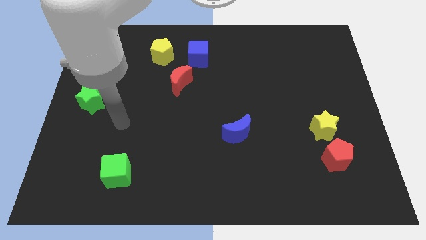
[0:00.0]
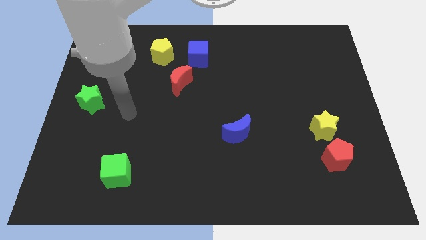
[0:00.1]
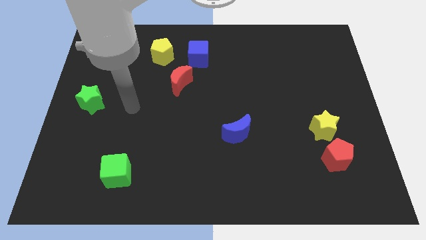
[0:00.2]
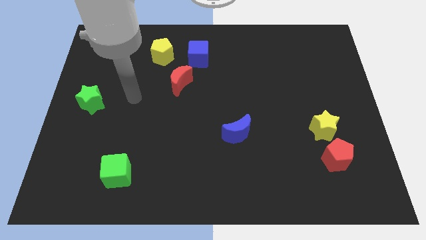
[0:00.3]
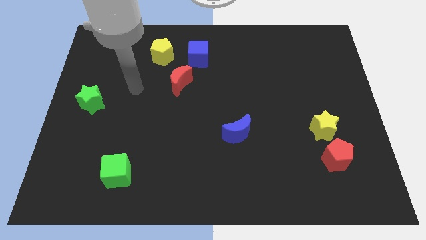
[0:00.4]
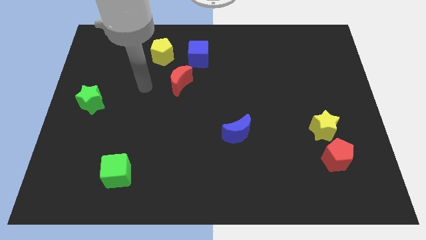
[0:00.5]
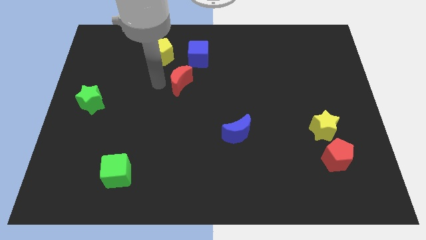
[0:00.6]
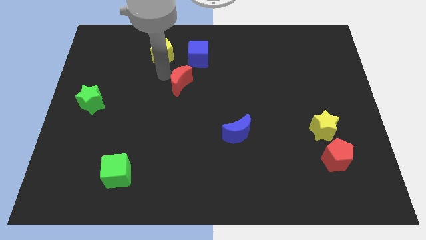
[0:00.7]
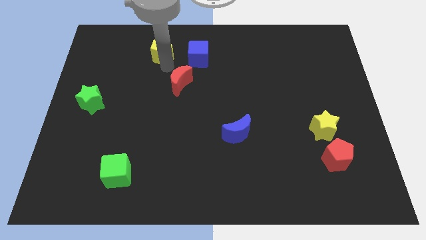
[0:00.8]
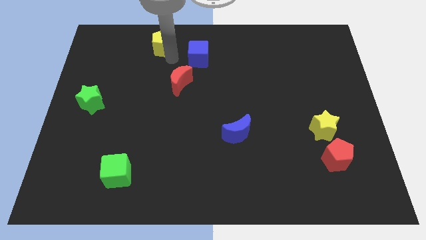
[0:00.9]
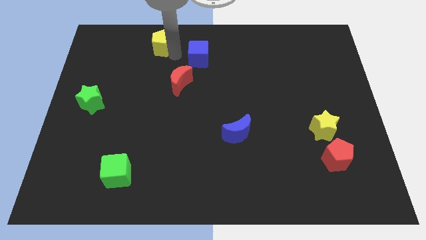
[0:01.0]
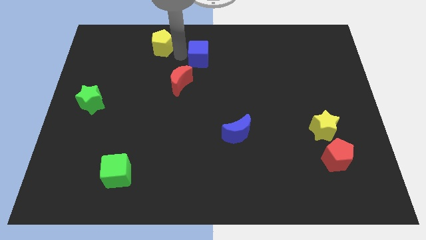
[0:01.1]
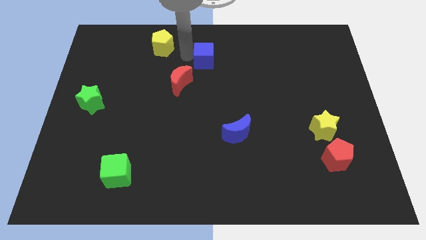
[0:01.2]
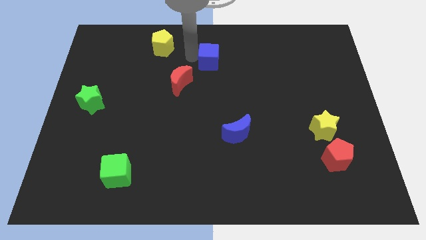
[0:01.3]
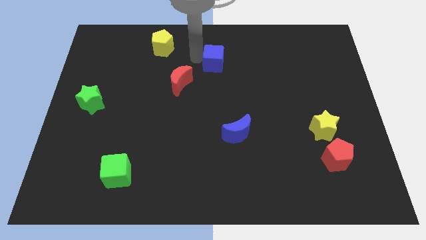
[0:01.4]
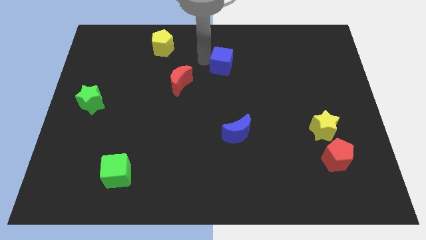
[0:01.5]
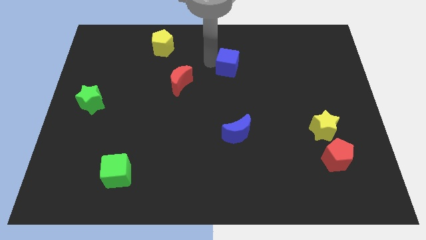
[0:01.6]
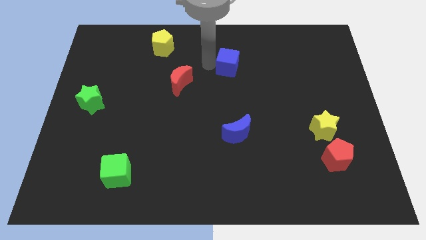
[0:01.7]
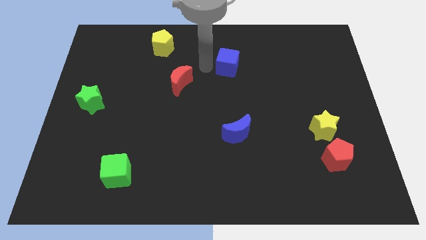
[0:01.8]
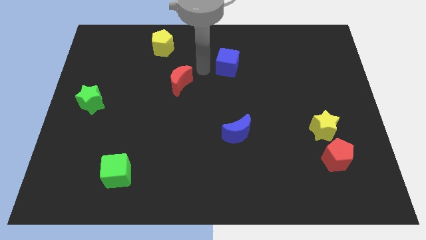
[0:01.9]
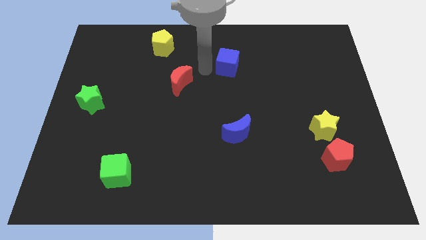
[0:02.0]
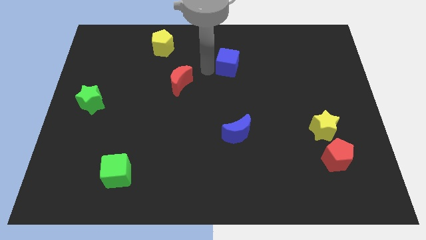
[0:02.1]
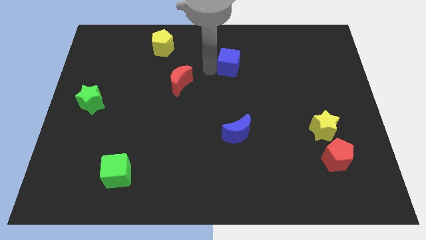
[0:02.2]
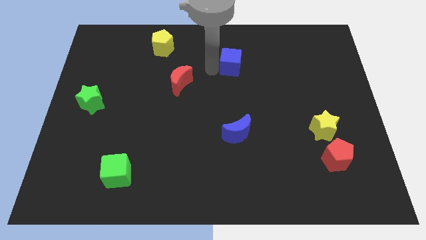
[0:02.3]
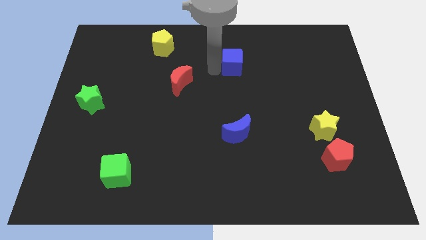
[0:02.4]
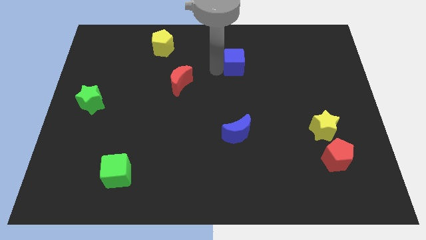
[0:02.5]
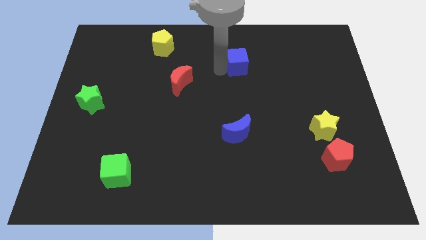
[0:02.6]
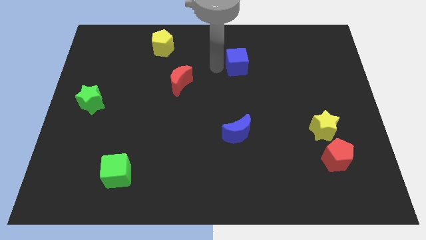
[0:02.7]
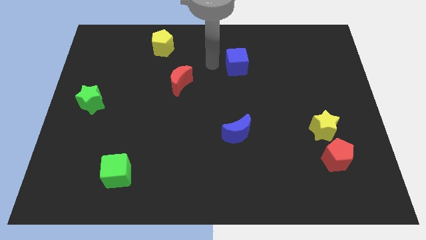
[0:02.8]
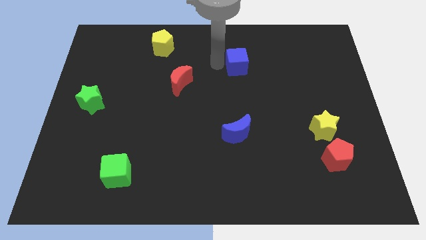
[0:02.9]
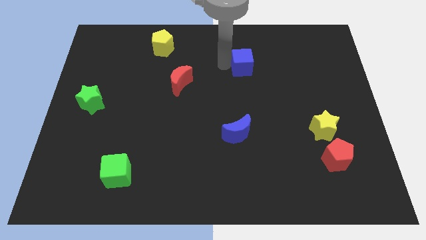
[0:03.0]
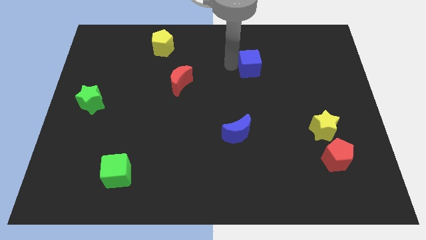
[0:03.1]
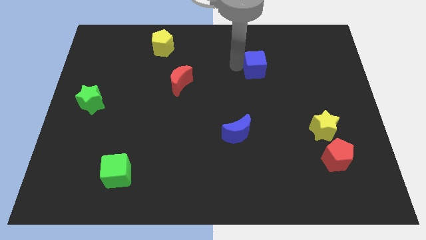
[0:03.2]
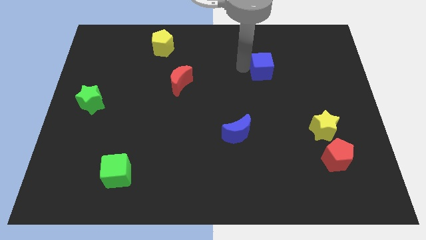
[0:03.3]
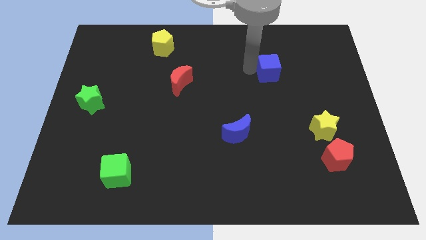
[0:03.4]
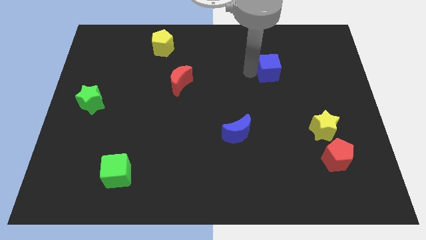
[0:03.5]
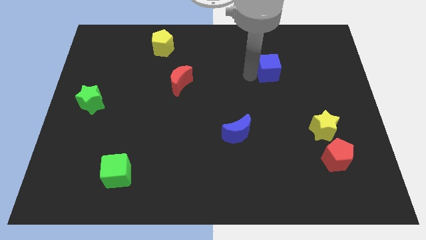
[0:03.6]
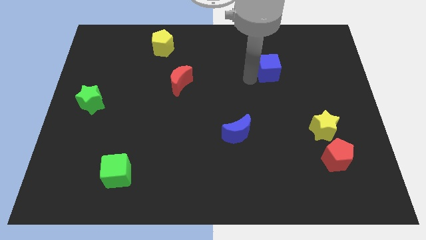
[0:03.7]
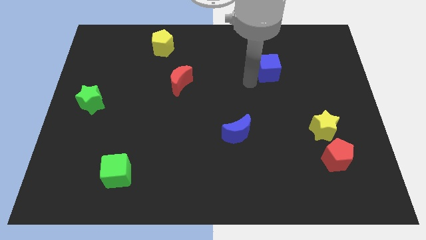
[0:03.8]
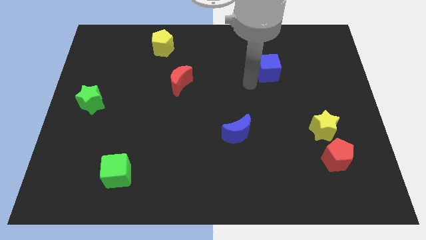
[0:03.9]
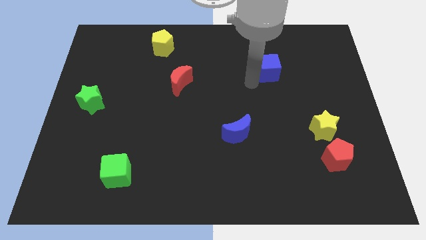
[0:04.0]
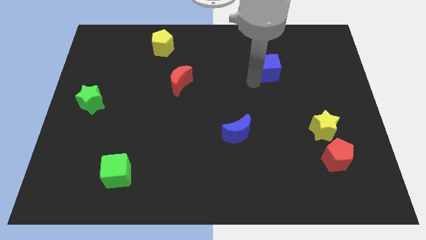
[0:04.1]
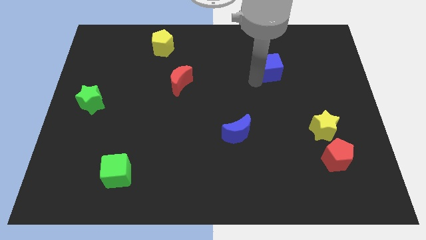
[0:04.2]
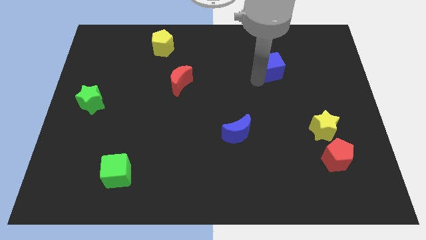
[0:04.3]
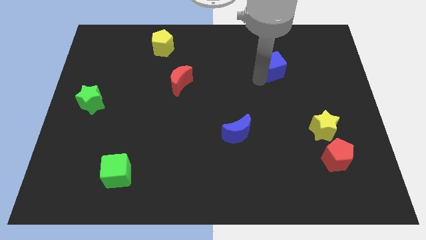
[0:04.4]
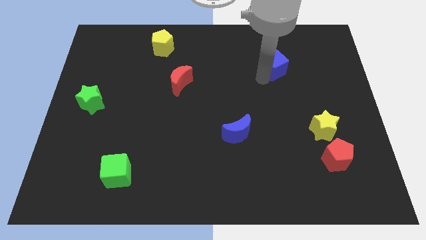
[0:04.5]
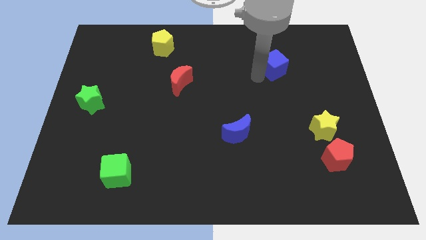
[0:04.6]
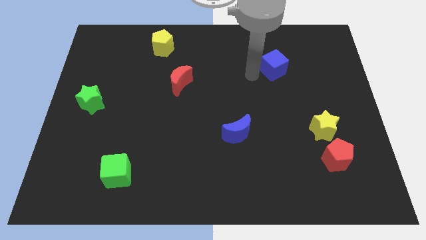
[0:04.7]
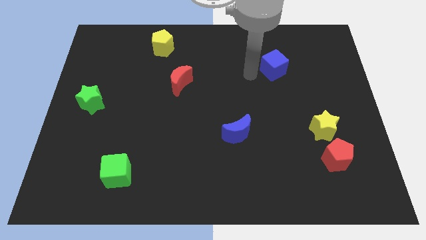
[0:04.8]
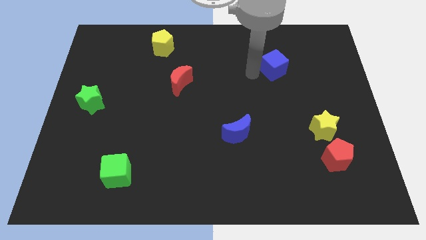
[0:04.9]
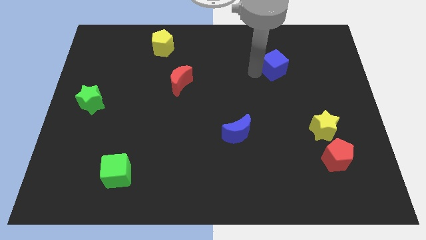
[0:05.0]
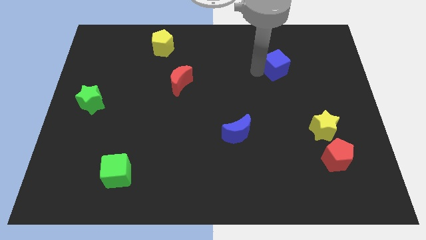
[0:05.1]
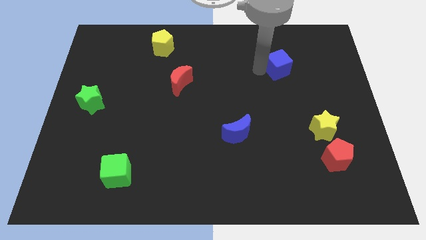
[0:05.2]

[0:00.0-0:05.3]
slide the blue cube right

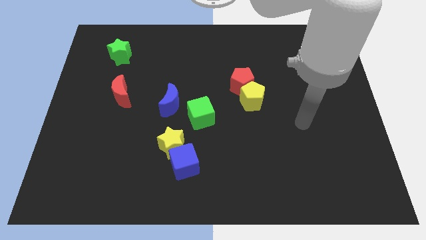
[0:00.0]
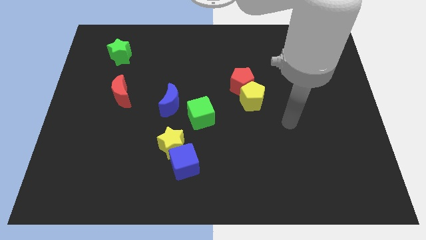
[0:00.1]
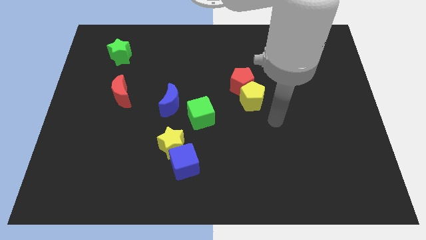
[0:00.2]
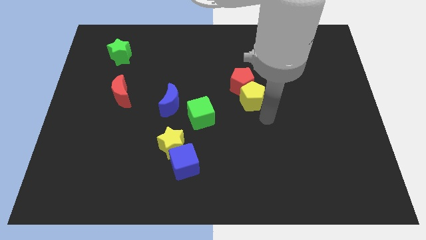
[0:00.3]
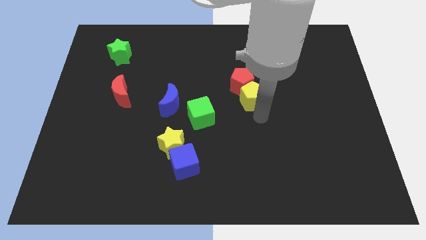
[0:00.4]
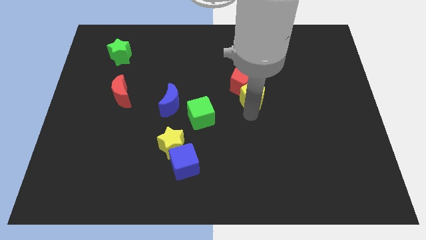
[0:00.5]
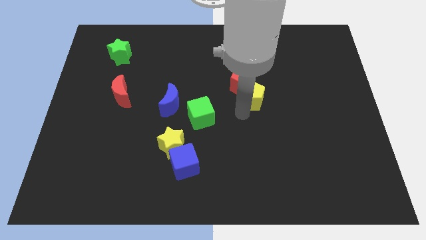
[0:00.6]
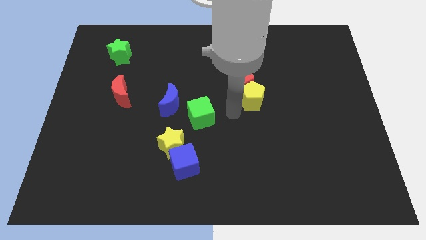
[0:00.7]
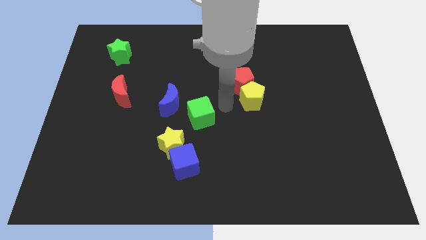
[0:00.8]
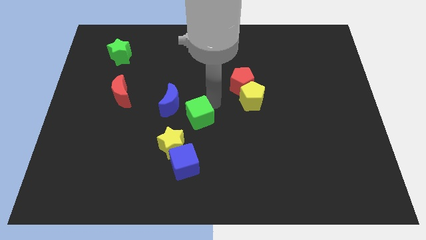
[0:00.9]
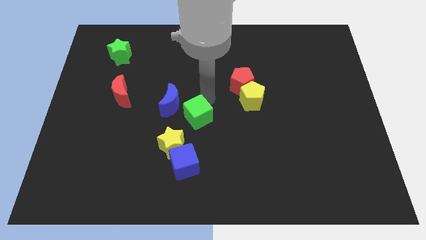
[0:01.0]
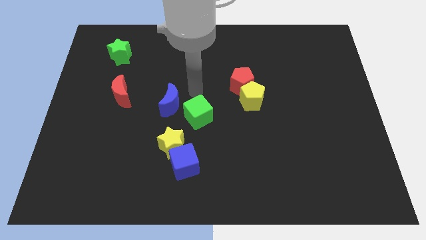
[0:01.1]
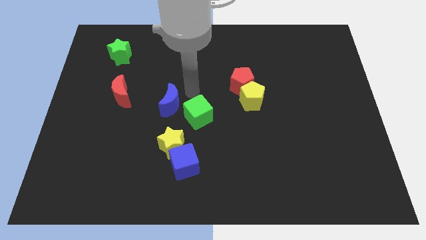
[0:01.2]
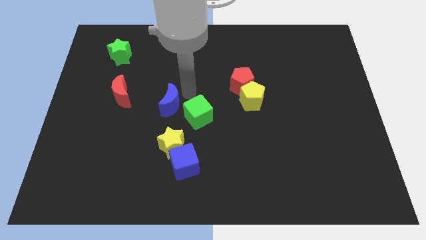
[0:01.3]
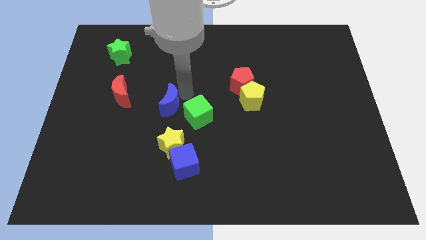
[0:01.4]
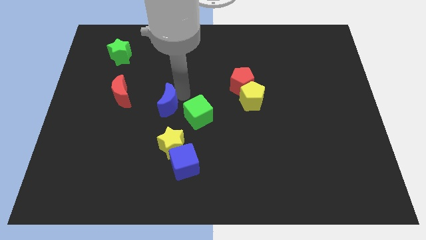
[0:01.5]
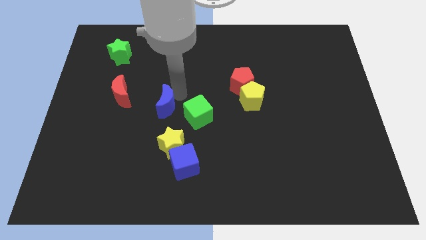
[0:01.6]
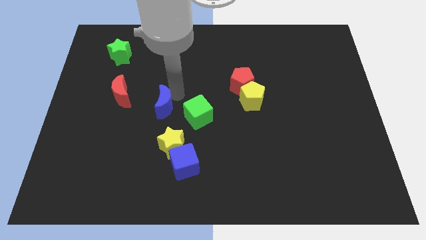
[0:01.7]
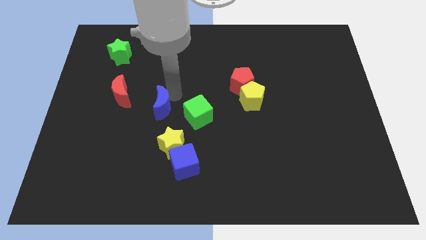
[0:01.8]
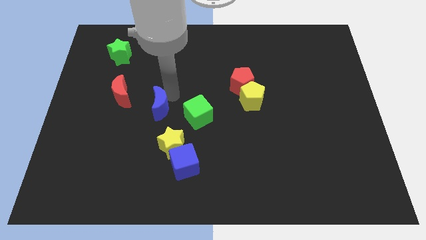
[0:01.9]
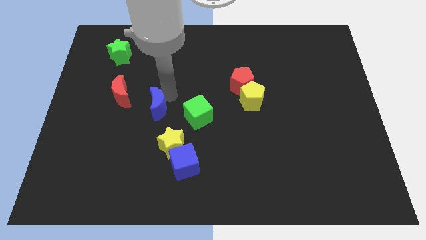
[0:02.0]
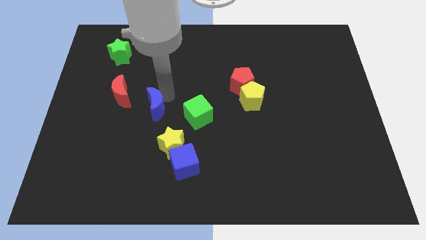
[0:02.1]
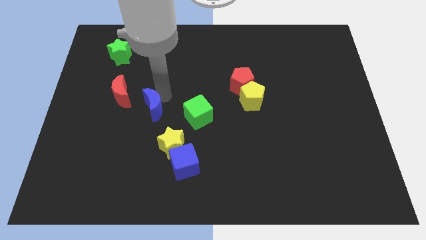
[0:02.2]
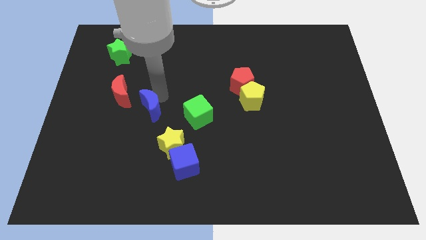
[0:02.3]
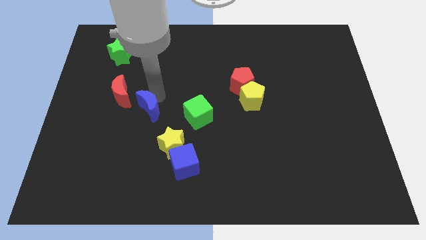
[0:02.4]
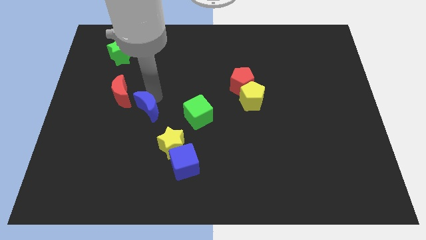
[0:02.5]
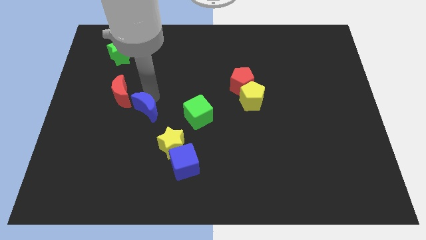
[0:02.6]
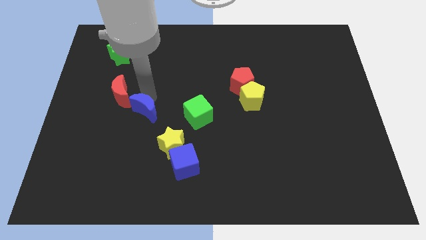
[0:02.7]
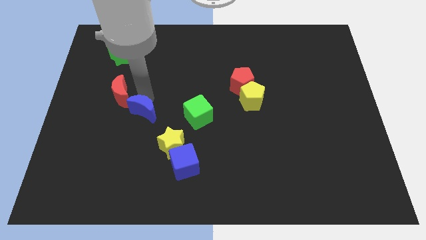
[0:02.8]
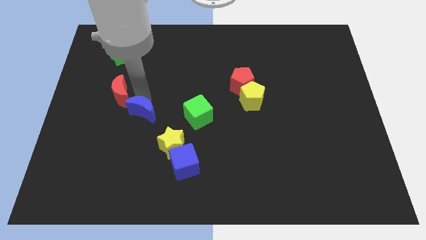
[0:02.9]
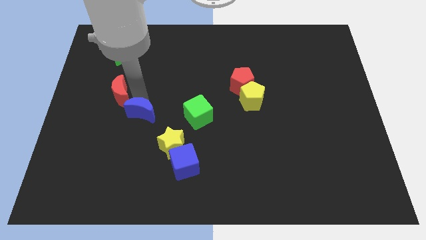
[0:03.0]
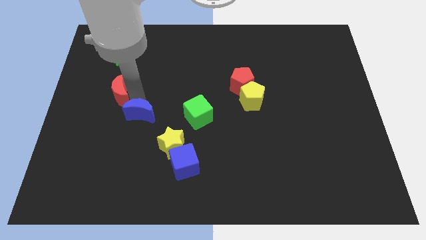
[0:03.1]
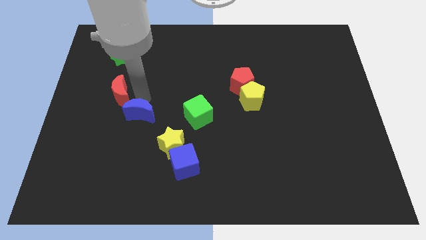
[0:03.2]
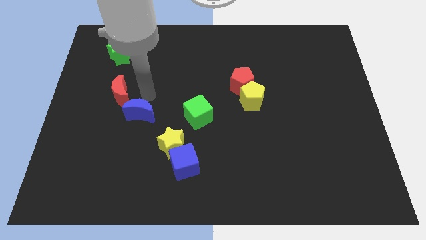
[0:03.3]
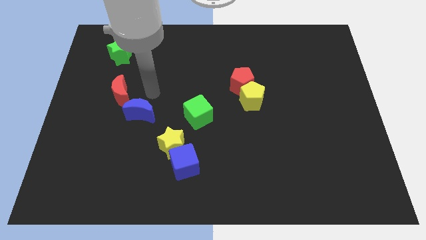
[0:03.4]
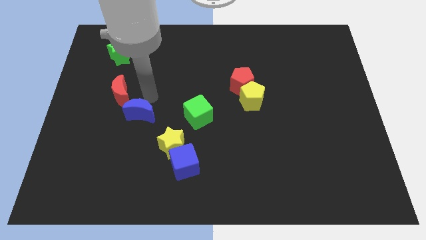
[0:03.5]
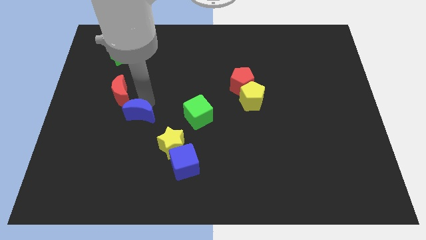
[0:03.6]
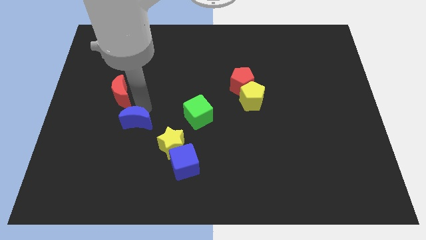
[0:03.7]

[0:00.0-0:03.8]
move the blue moon downwards and then left slightly
